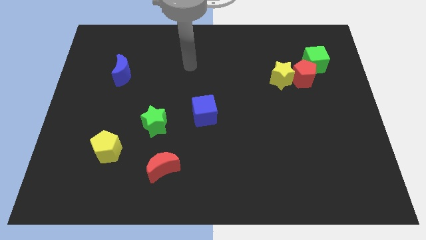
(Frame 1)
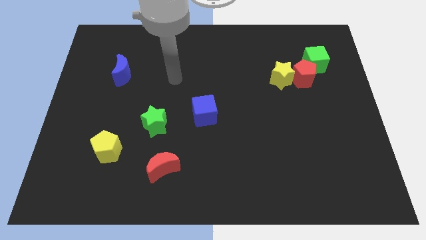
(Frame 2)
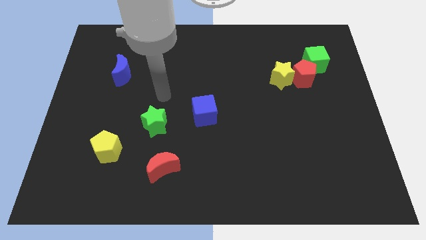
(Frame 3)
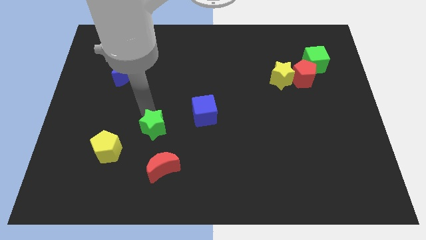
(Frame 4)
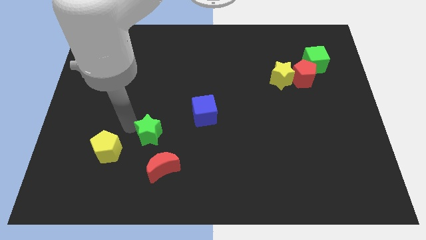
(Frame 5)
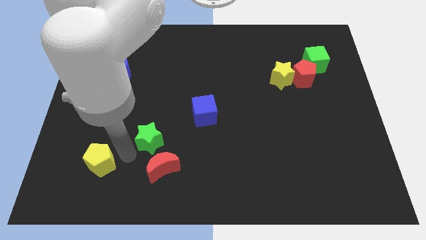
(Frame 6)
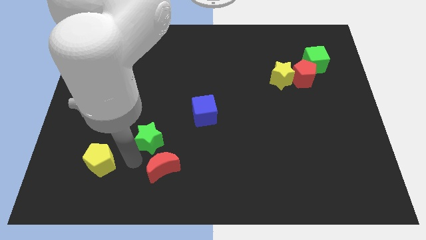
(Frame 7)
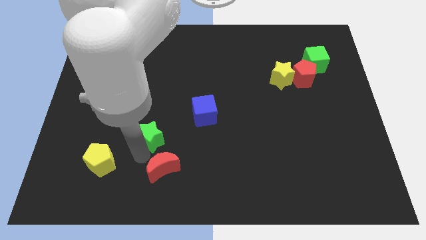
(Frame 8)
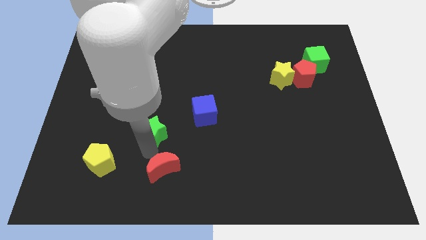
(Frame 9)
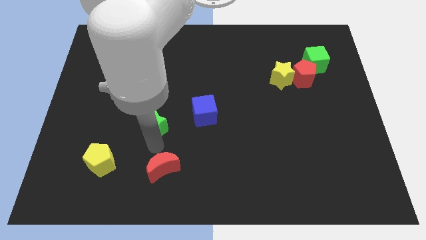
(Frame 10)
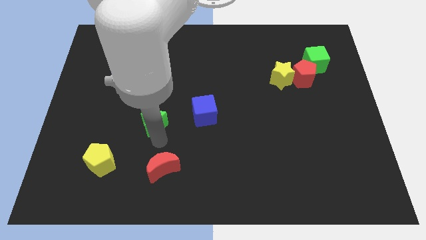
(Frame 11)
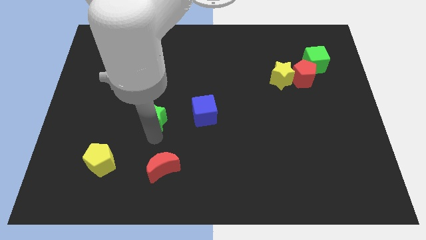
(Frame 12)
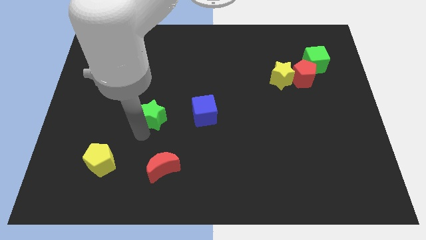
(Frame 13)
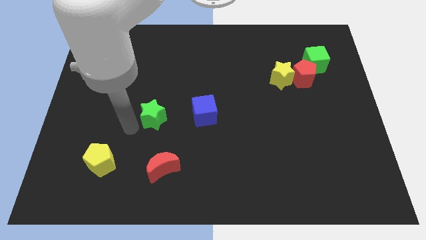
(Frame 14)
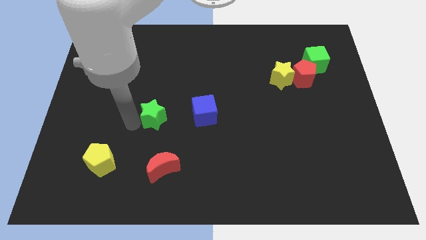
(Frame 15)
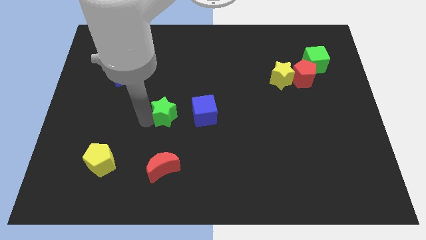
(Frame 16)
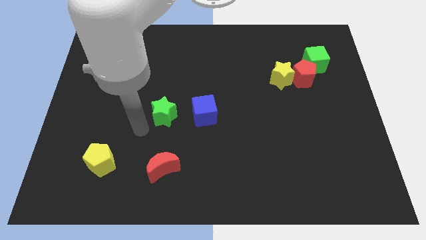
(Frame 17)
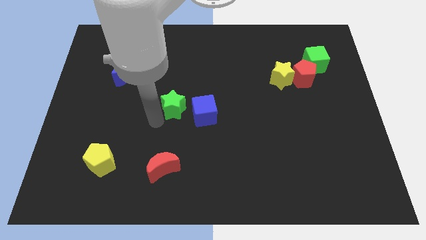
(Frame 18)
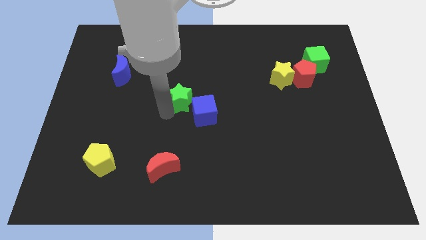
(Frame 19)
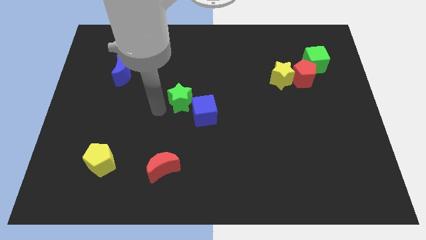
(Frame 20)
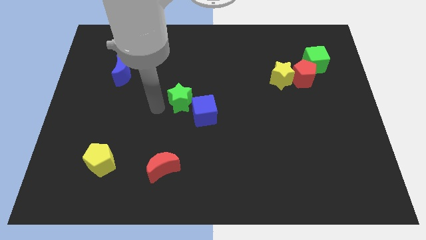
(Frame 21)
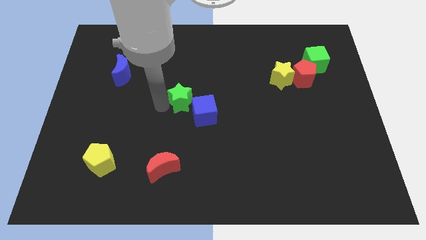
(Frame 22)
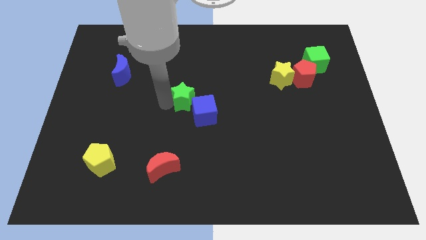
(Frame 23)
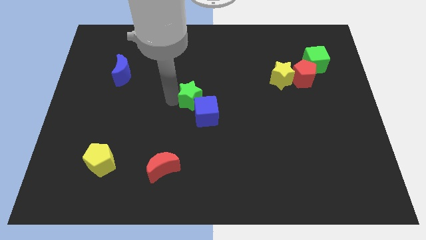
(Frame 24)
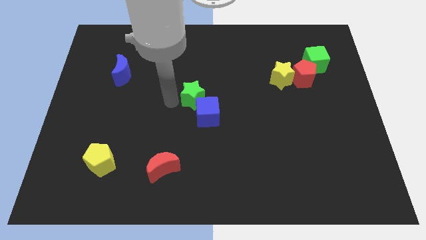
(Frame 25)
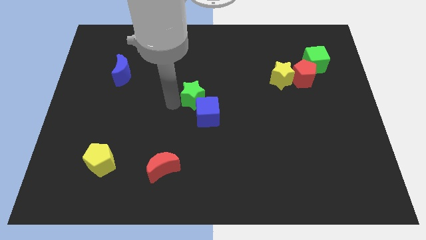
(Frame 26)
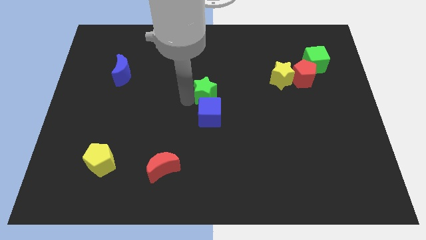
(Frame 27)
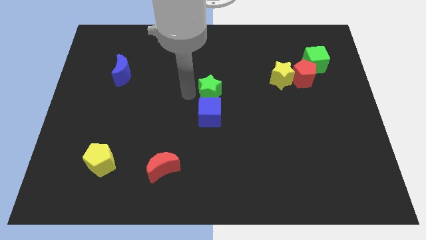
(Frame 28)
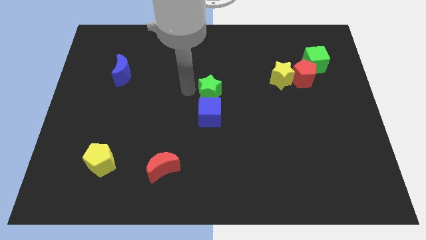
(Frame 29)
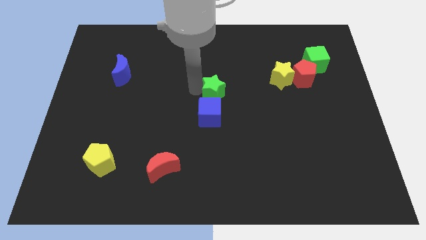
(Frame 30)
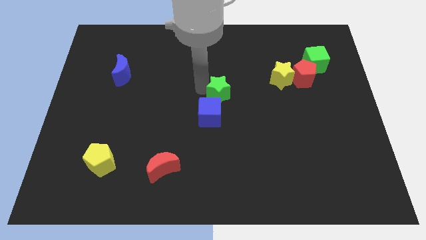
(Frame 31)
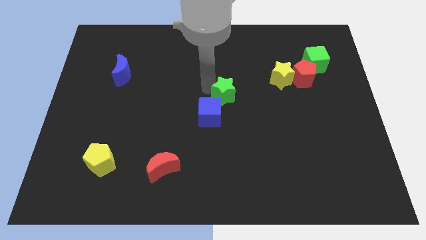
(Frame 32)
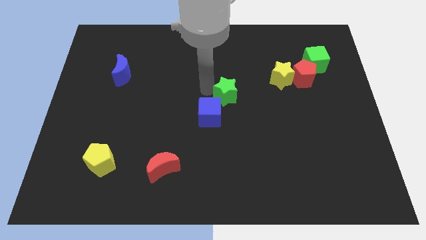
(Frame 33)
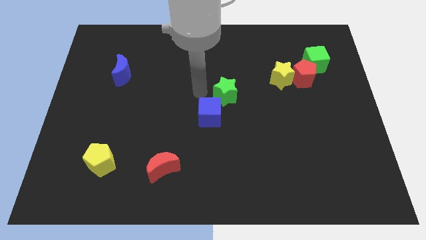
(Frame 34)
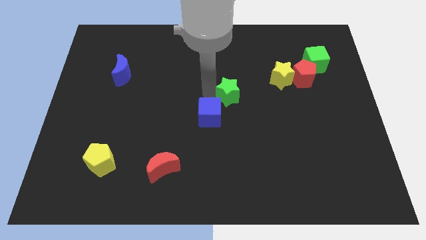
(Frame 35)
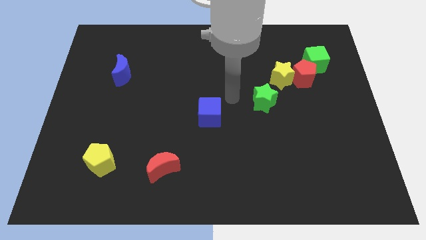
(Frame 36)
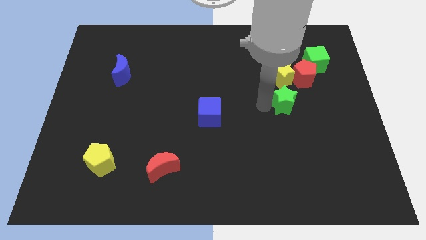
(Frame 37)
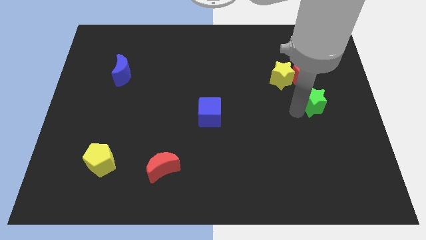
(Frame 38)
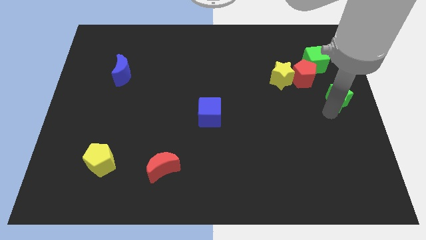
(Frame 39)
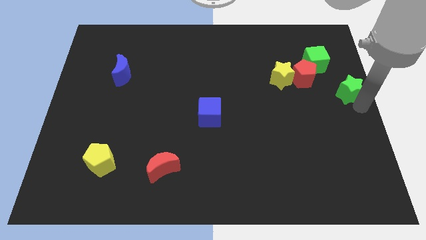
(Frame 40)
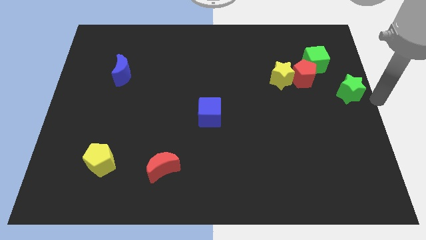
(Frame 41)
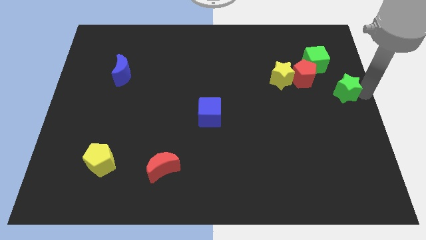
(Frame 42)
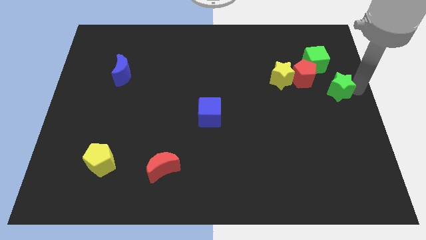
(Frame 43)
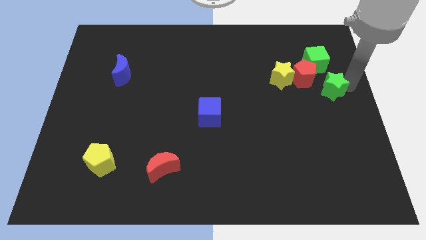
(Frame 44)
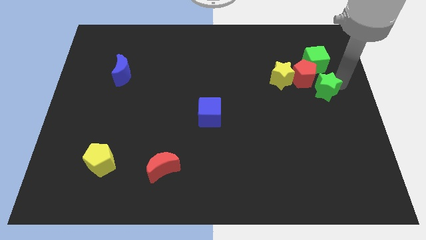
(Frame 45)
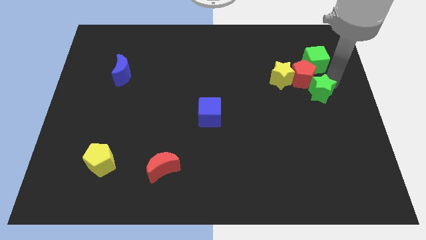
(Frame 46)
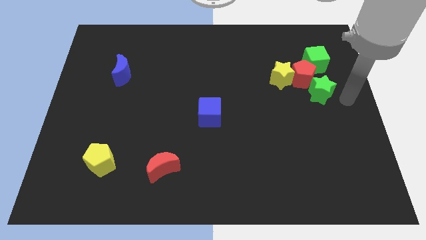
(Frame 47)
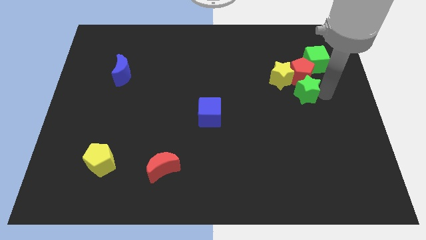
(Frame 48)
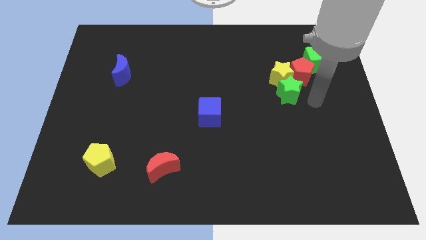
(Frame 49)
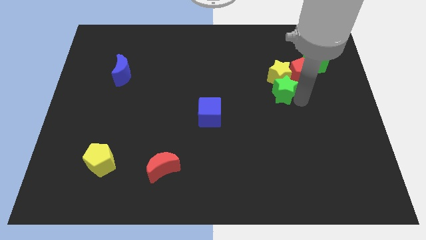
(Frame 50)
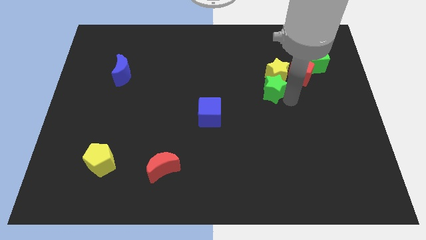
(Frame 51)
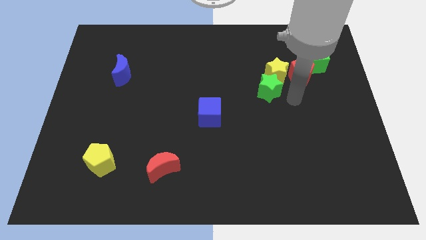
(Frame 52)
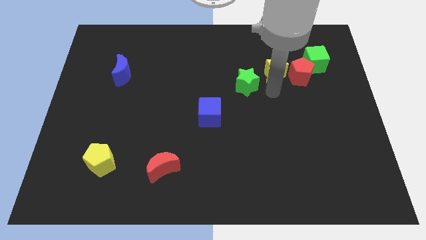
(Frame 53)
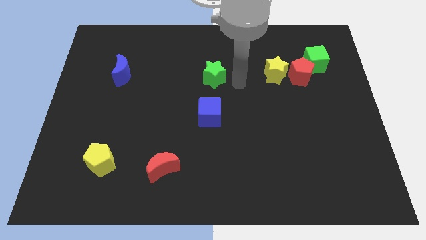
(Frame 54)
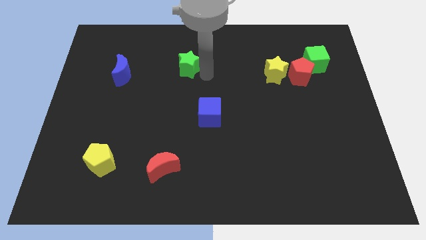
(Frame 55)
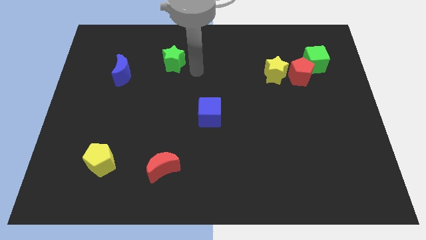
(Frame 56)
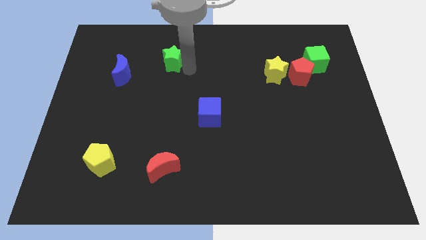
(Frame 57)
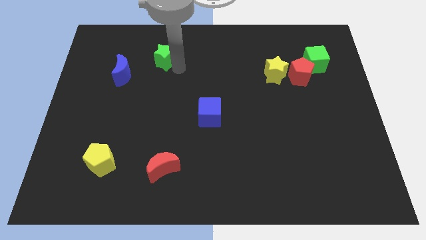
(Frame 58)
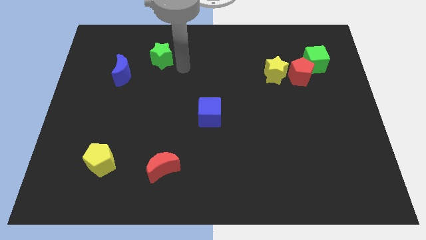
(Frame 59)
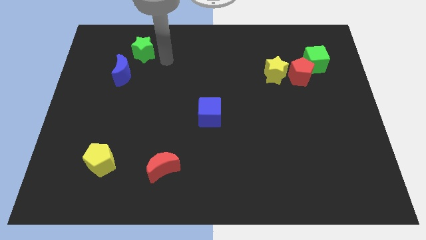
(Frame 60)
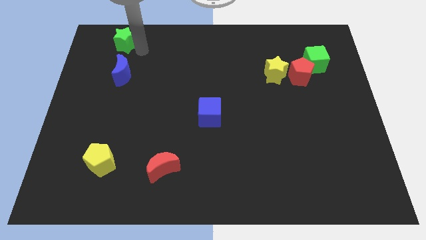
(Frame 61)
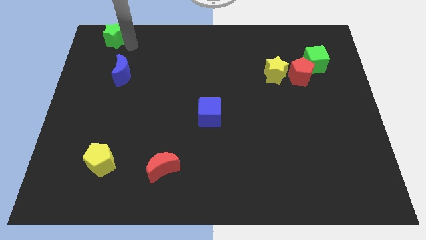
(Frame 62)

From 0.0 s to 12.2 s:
slide the green star to the upper left corner
